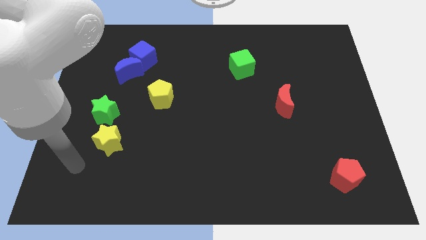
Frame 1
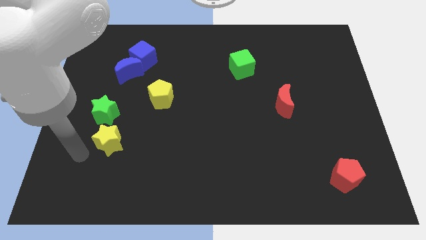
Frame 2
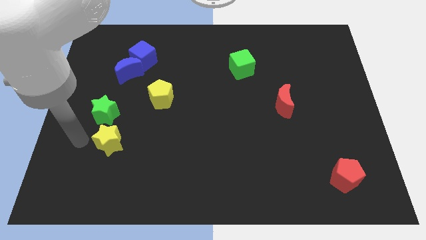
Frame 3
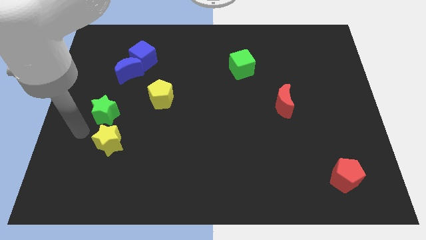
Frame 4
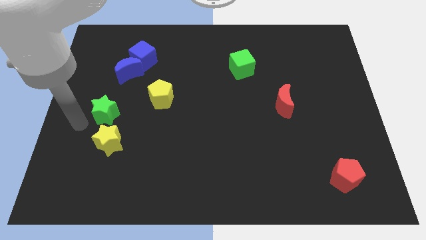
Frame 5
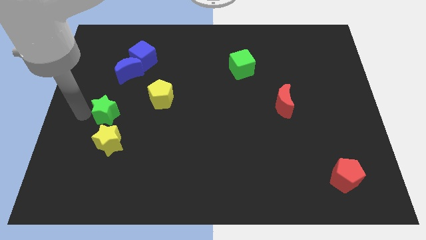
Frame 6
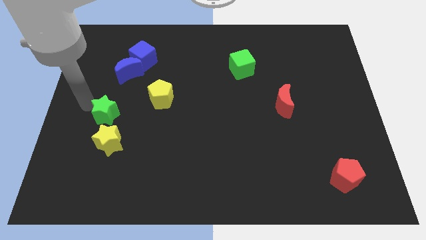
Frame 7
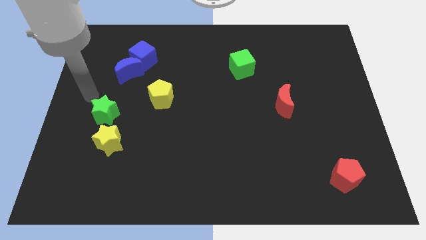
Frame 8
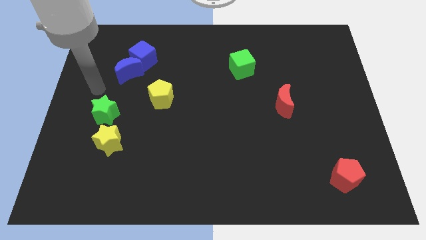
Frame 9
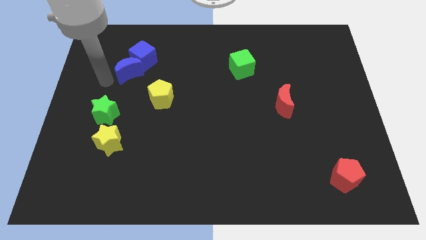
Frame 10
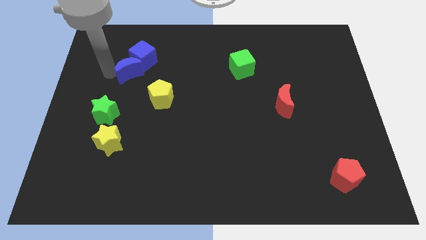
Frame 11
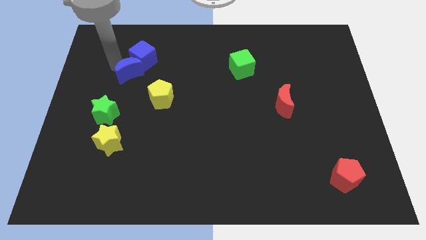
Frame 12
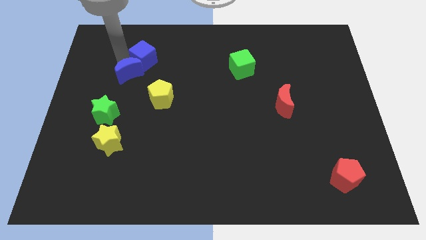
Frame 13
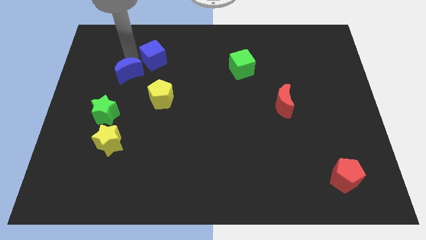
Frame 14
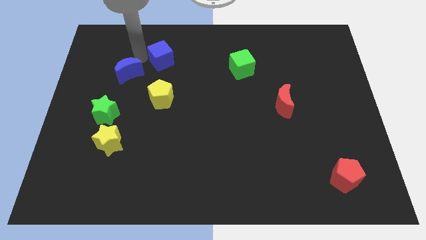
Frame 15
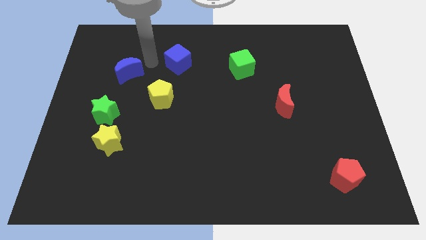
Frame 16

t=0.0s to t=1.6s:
move the blue moon away from the blue cube

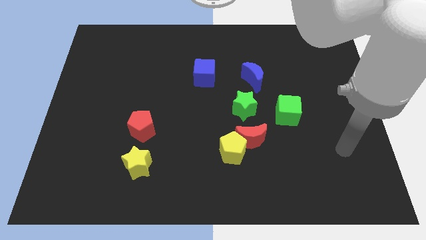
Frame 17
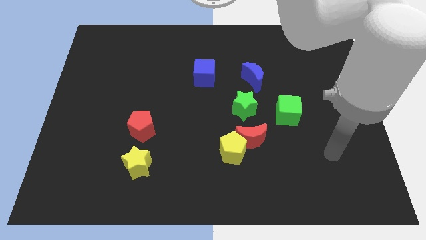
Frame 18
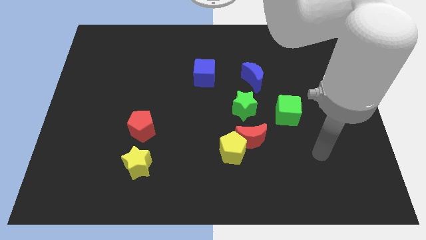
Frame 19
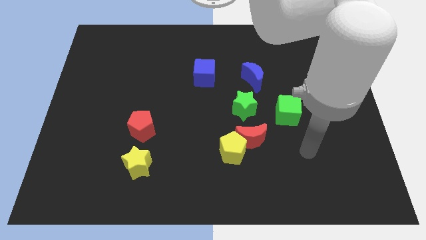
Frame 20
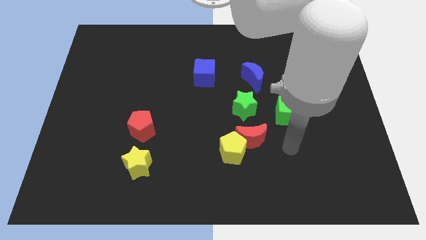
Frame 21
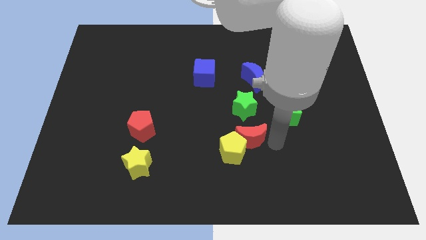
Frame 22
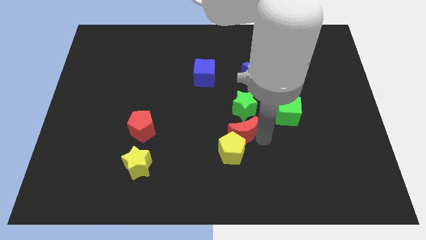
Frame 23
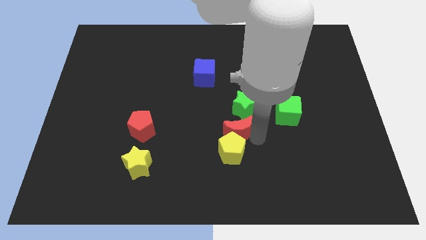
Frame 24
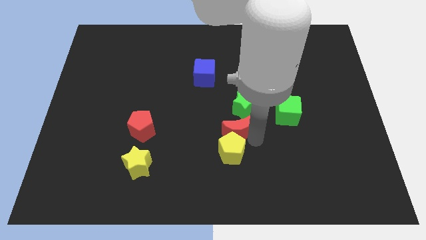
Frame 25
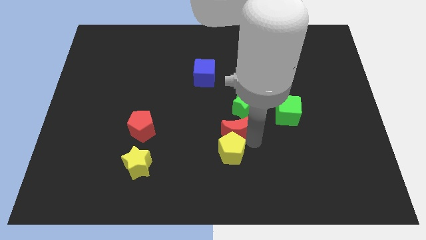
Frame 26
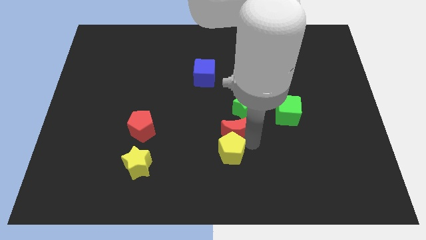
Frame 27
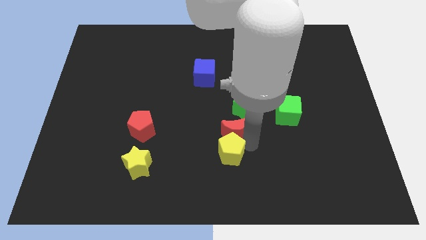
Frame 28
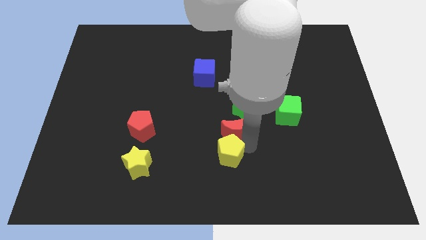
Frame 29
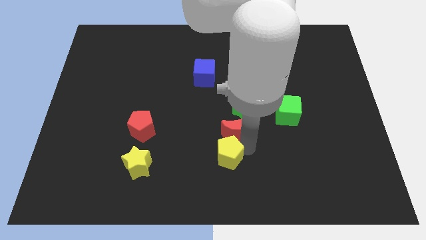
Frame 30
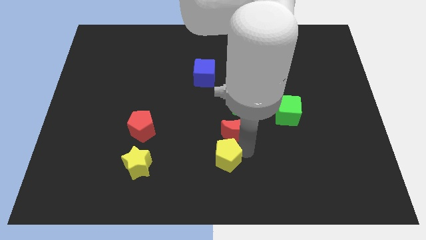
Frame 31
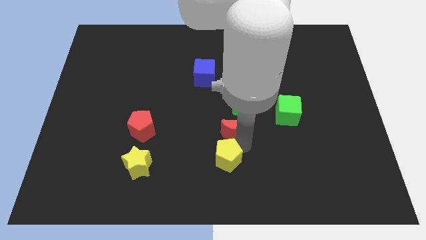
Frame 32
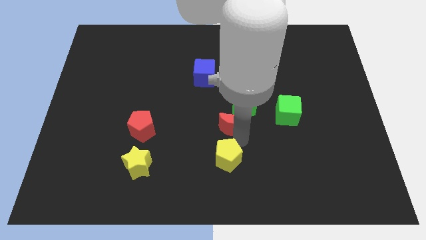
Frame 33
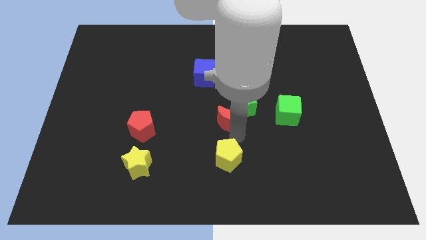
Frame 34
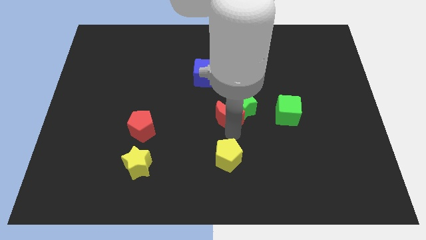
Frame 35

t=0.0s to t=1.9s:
separate the yellow pentagon from the red moon

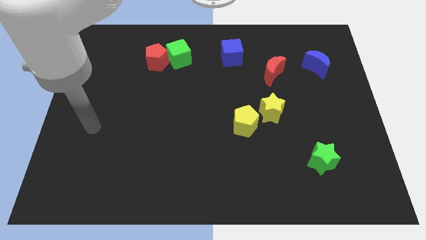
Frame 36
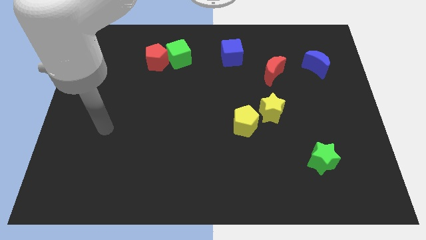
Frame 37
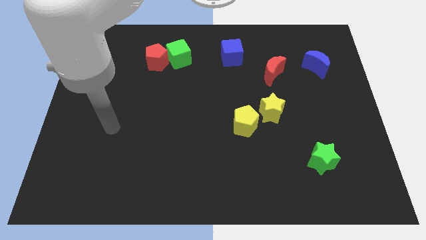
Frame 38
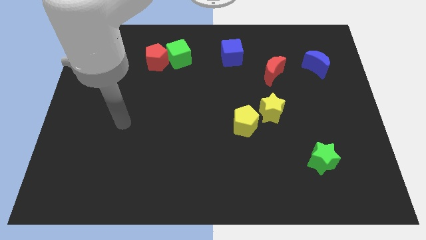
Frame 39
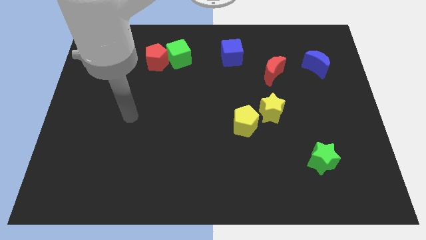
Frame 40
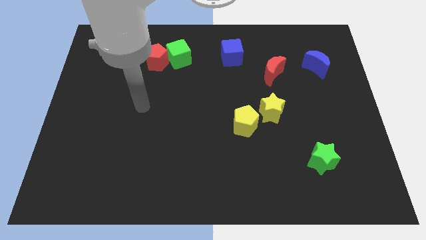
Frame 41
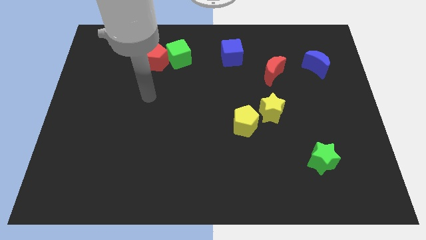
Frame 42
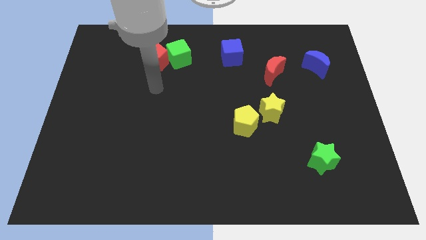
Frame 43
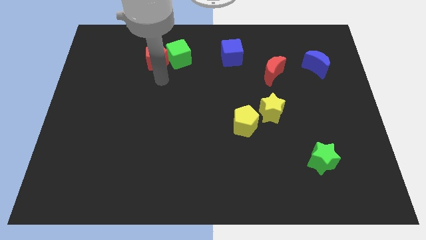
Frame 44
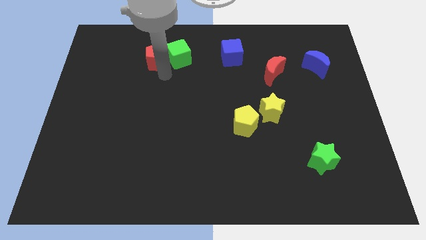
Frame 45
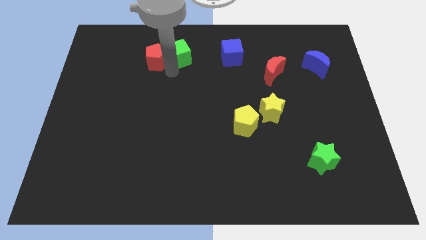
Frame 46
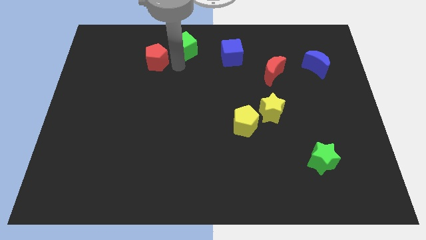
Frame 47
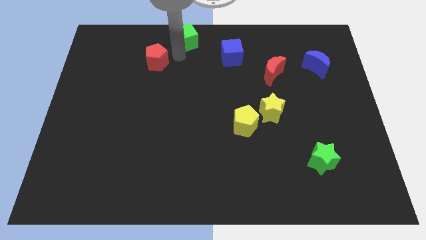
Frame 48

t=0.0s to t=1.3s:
move the red pentagon away from the green cube

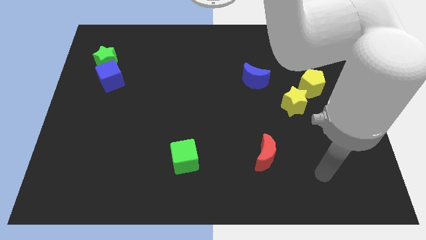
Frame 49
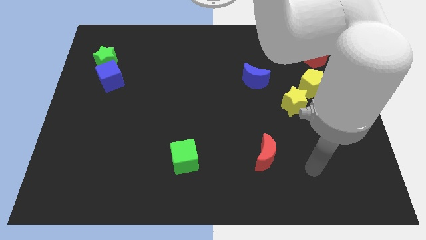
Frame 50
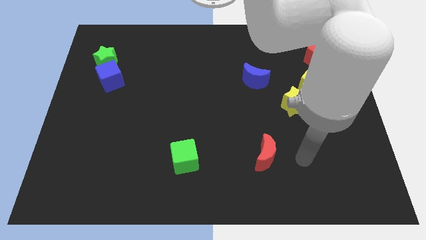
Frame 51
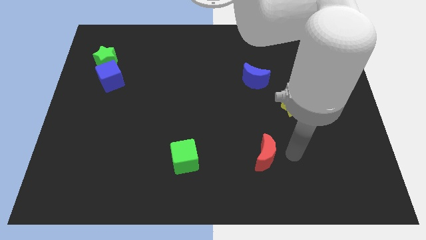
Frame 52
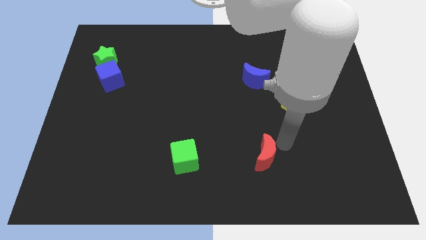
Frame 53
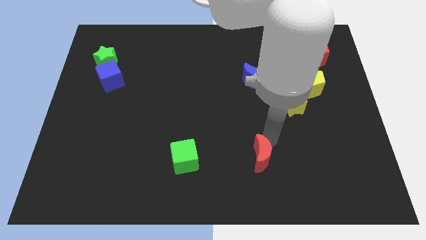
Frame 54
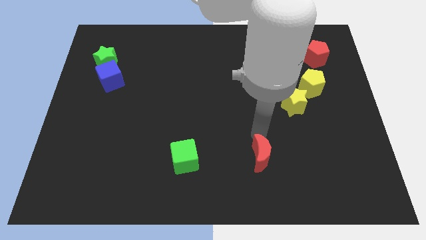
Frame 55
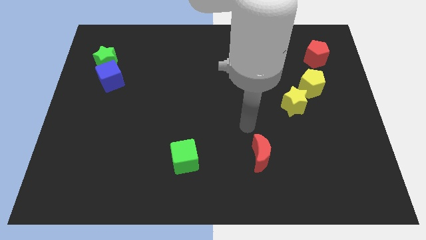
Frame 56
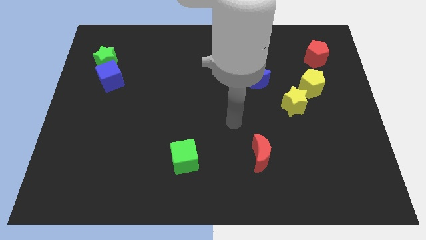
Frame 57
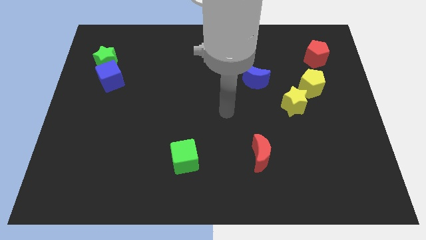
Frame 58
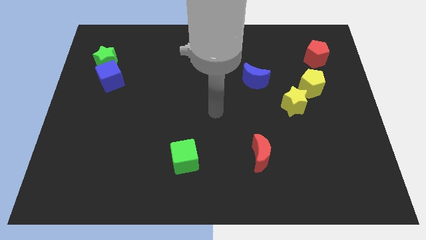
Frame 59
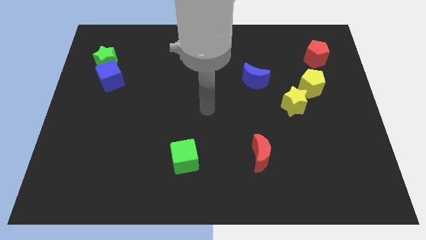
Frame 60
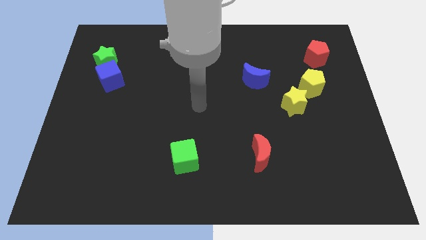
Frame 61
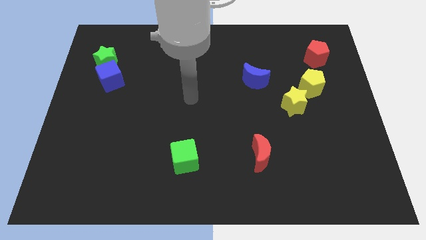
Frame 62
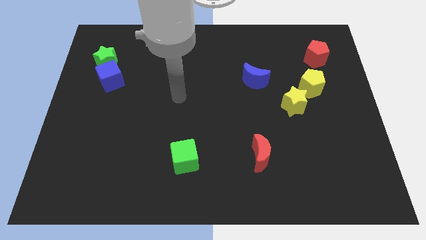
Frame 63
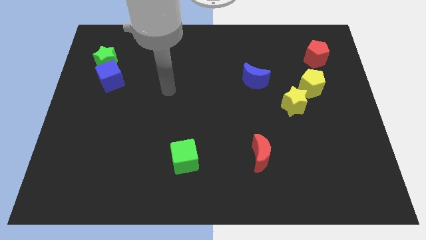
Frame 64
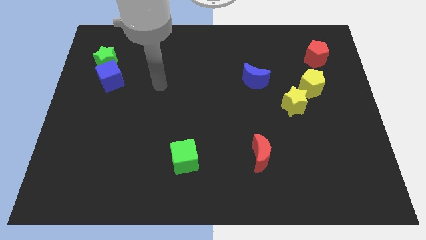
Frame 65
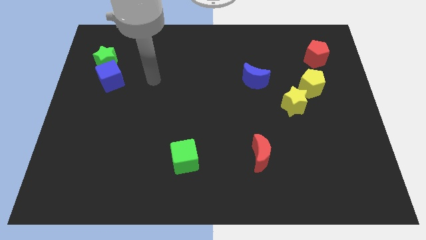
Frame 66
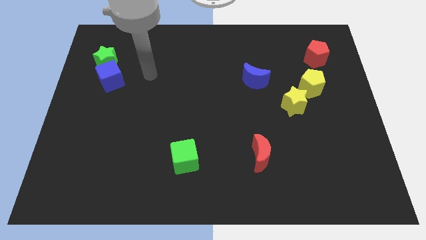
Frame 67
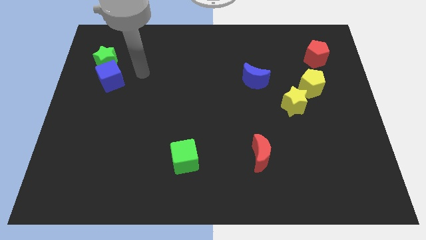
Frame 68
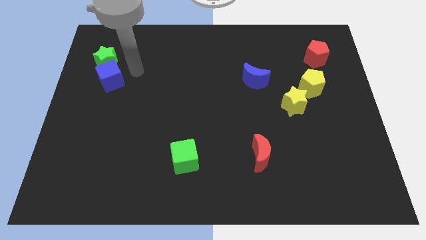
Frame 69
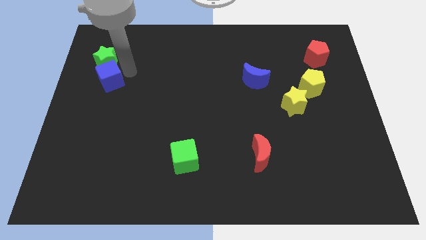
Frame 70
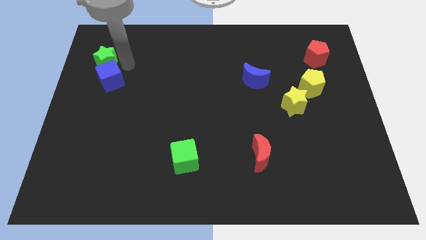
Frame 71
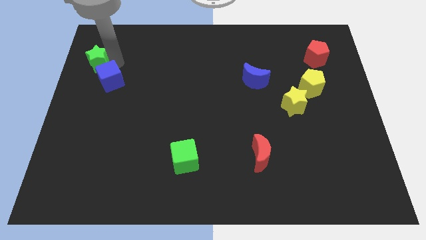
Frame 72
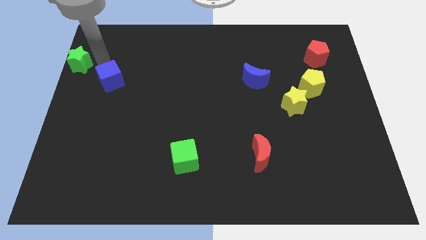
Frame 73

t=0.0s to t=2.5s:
pull the blue cube apart from the green star

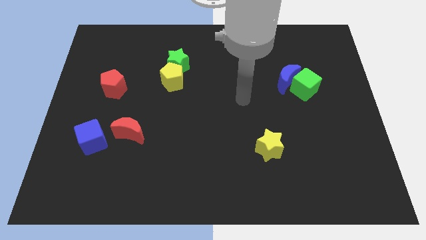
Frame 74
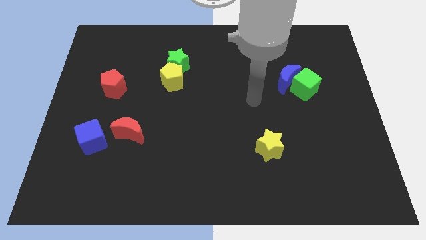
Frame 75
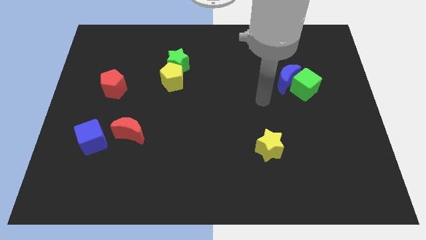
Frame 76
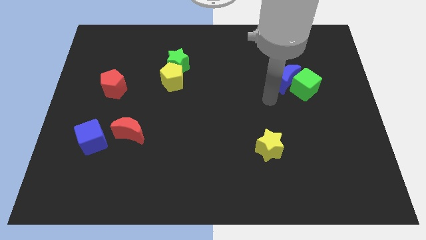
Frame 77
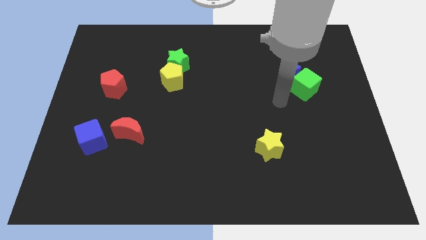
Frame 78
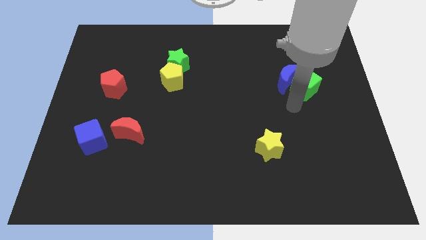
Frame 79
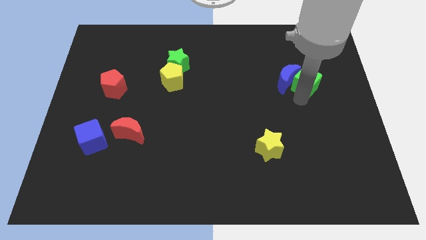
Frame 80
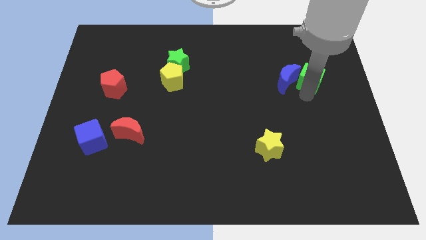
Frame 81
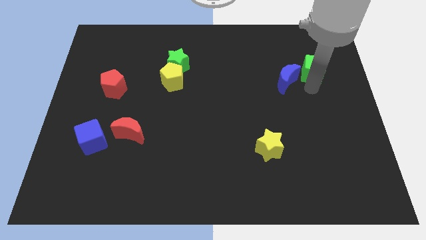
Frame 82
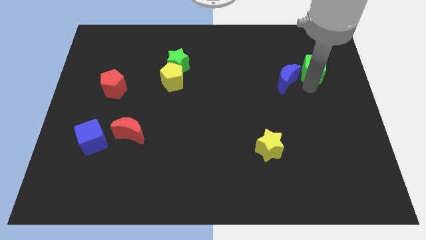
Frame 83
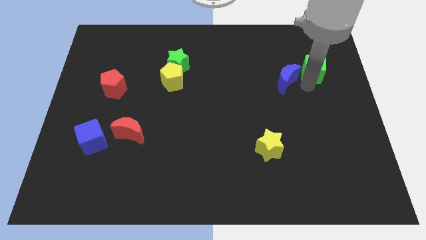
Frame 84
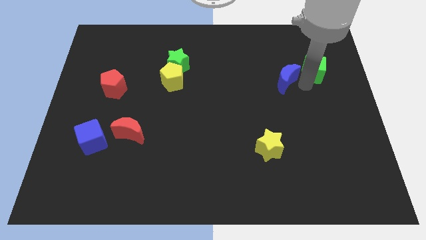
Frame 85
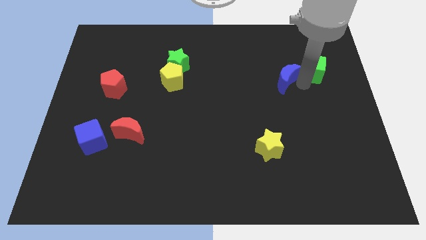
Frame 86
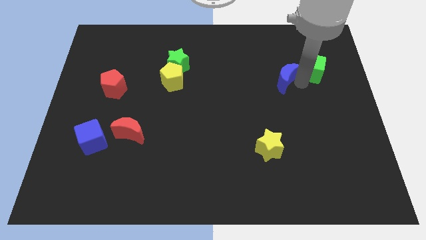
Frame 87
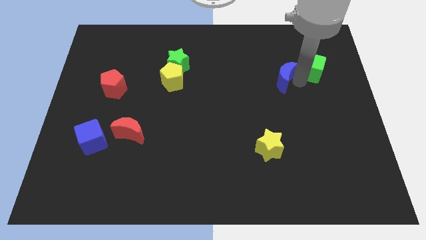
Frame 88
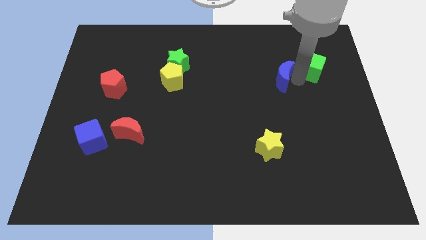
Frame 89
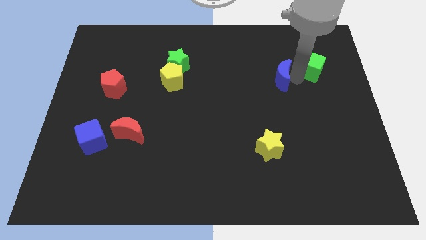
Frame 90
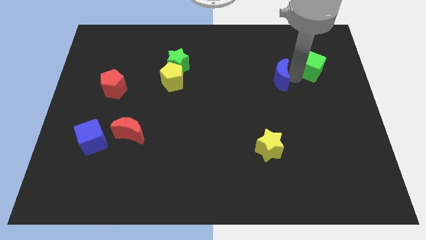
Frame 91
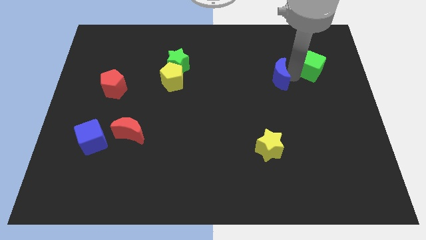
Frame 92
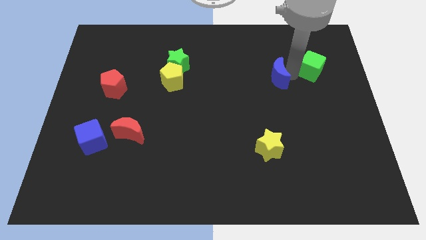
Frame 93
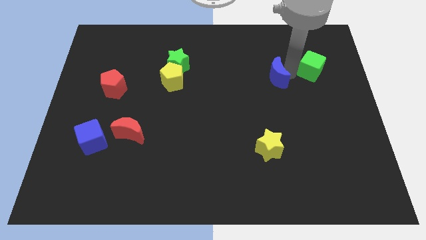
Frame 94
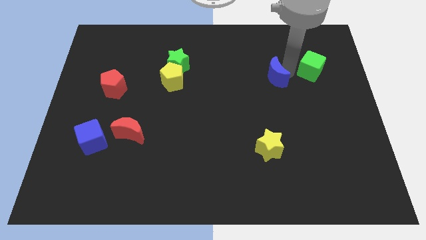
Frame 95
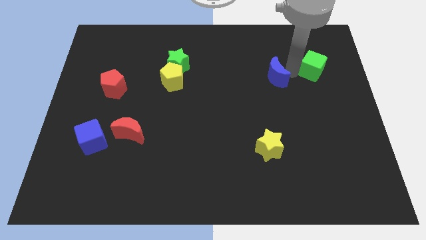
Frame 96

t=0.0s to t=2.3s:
separate the blue moon from the green cube
